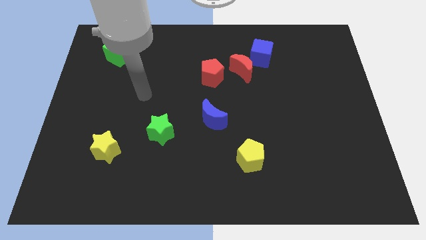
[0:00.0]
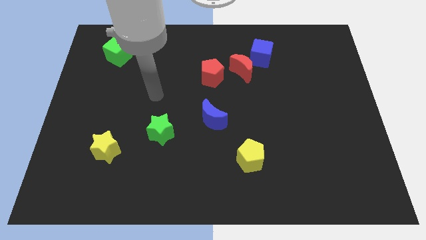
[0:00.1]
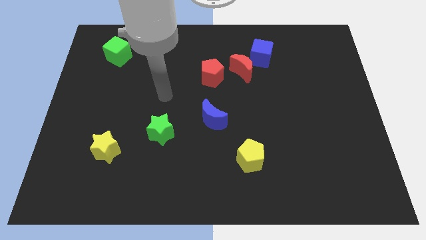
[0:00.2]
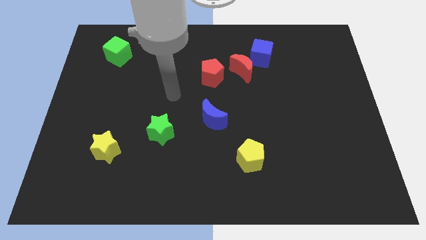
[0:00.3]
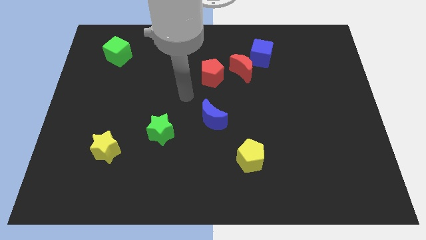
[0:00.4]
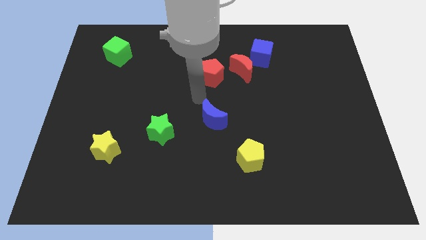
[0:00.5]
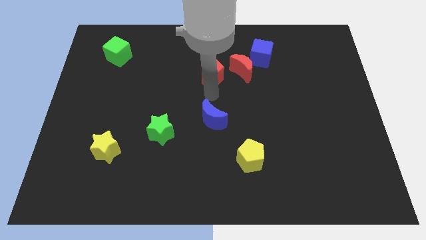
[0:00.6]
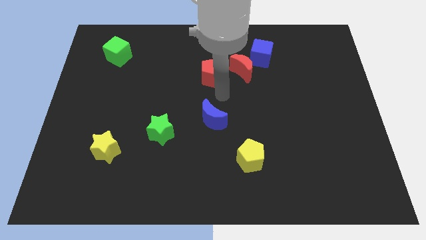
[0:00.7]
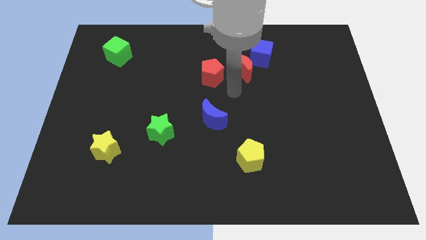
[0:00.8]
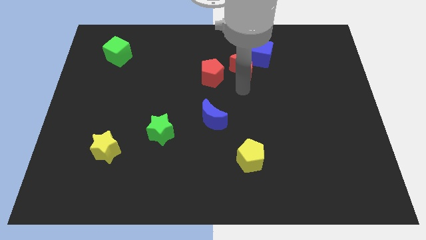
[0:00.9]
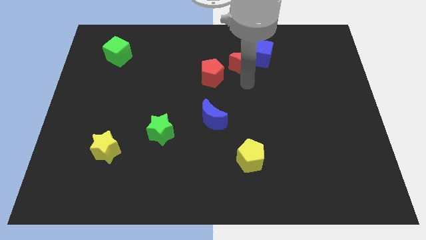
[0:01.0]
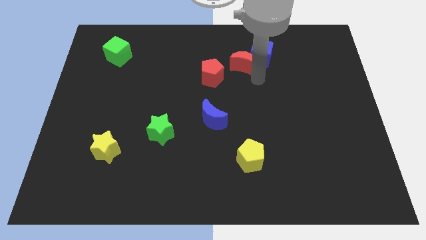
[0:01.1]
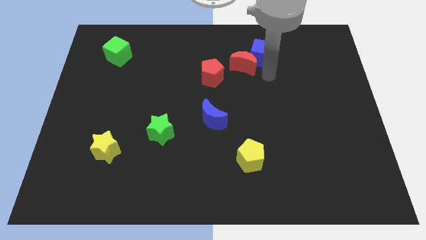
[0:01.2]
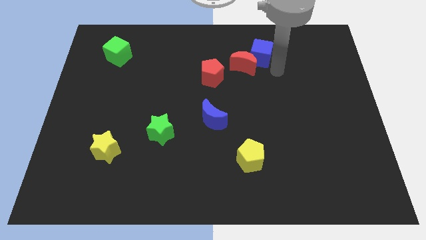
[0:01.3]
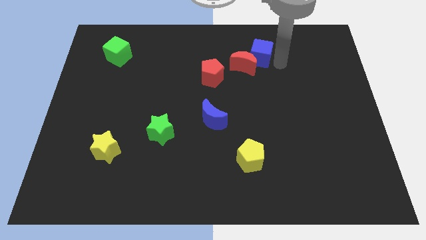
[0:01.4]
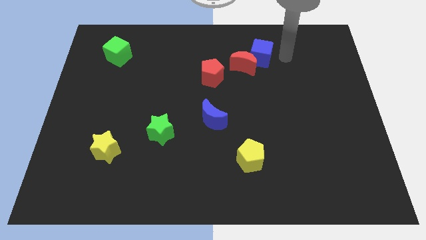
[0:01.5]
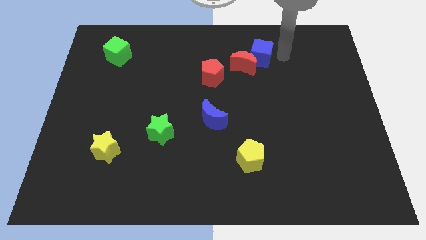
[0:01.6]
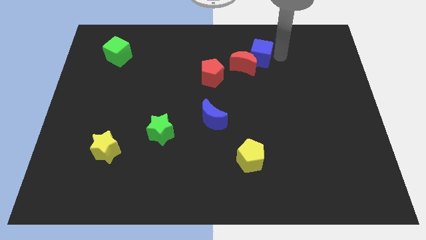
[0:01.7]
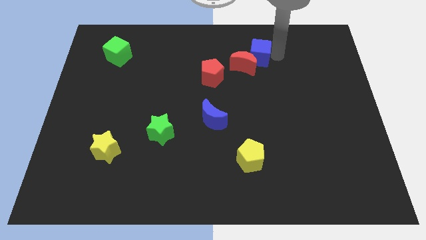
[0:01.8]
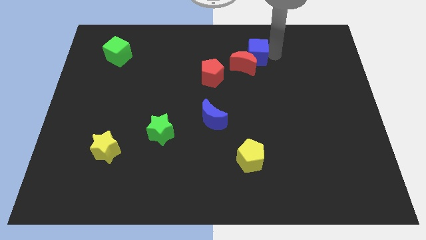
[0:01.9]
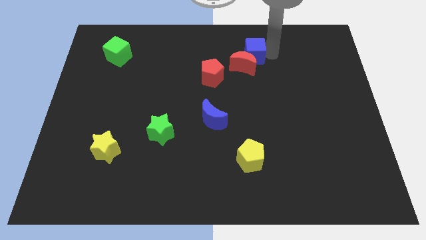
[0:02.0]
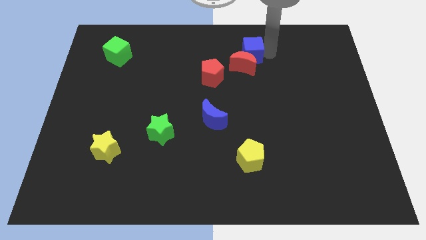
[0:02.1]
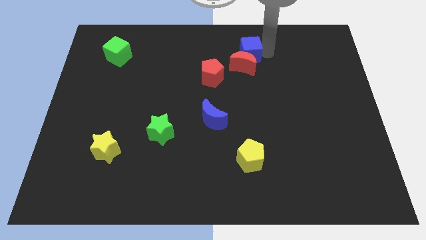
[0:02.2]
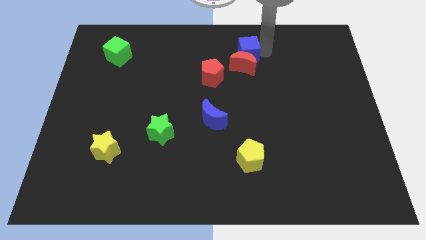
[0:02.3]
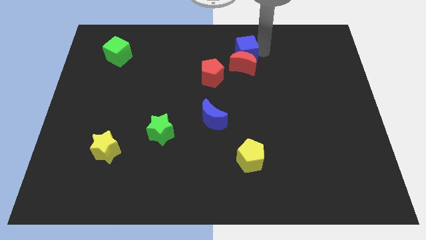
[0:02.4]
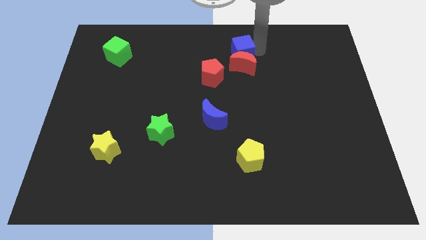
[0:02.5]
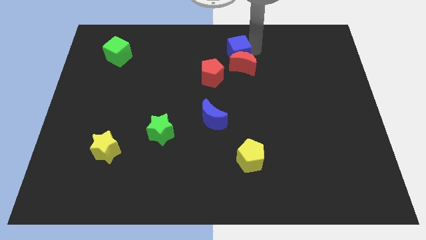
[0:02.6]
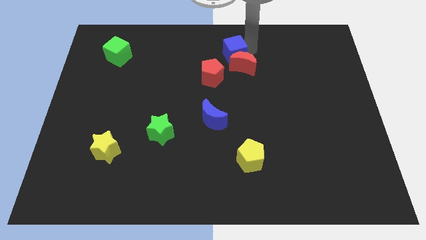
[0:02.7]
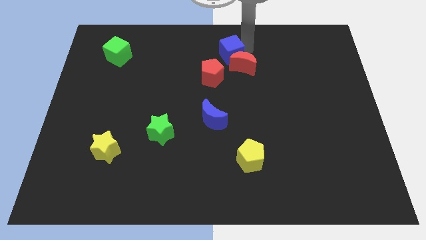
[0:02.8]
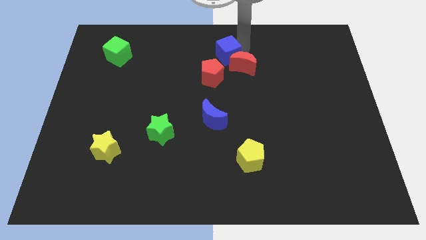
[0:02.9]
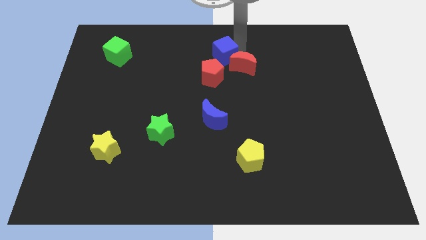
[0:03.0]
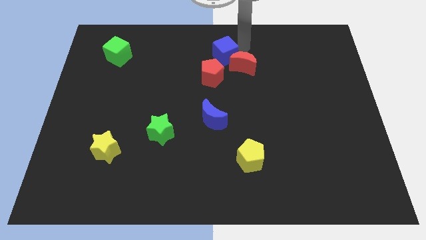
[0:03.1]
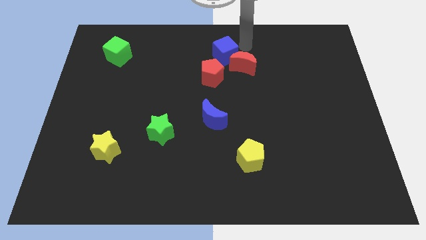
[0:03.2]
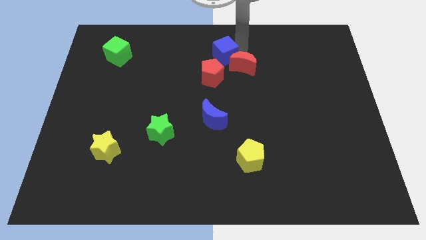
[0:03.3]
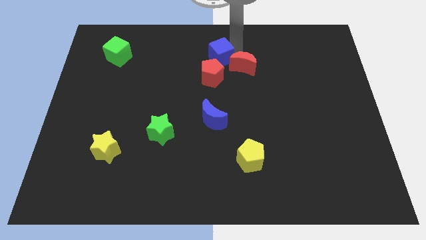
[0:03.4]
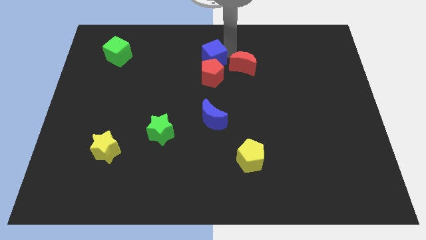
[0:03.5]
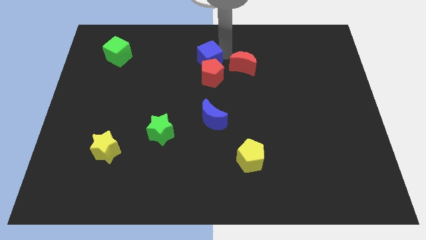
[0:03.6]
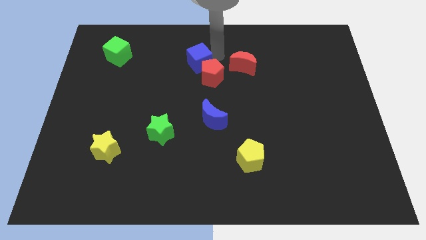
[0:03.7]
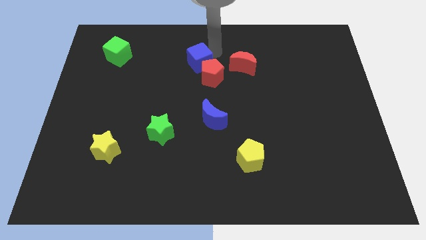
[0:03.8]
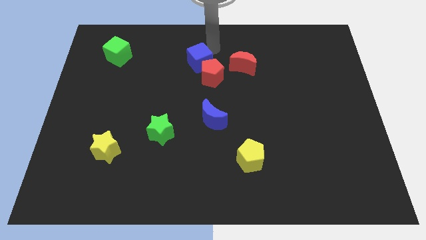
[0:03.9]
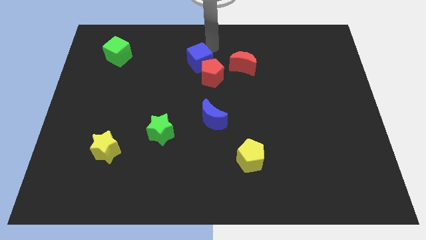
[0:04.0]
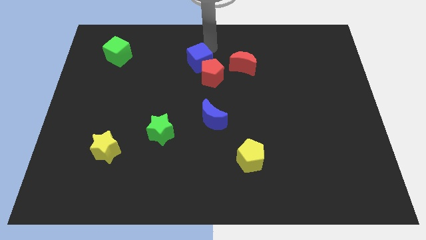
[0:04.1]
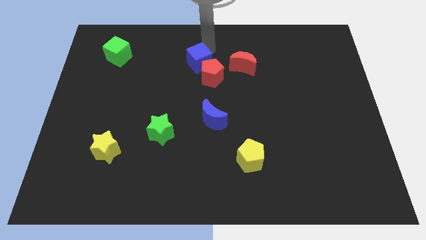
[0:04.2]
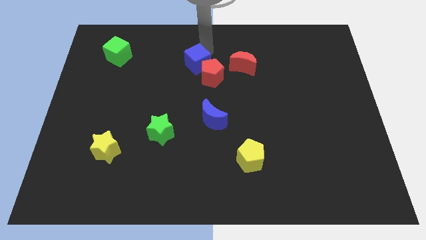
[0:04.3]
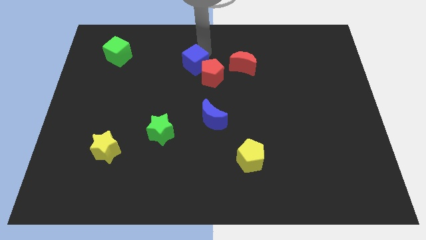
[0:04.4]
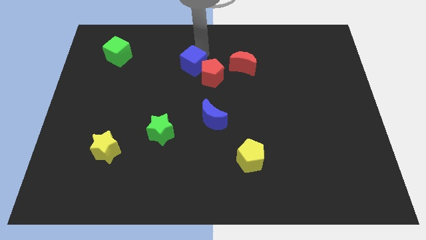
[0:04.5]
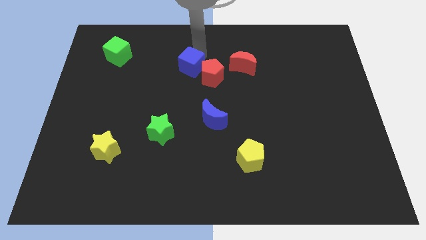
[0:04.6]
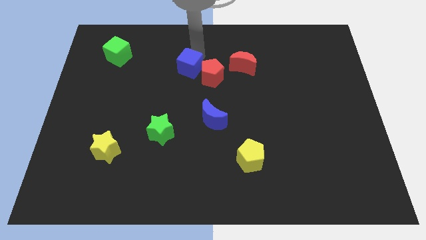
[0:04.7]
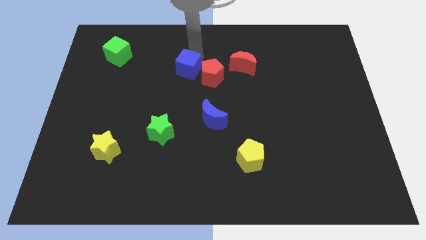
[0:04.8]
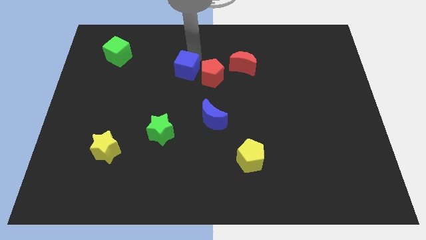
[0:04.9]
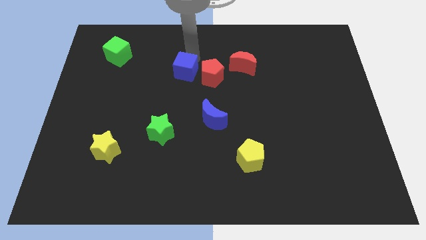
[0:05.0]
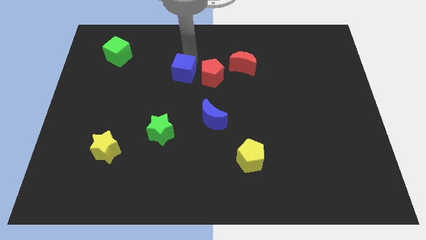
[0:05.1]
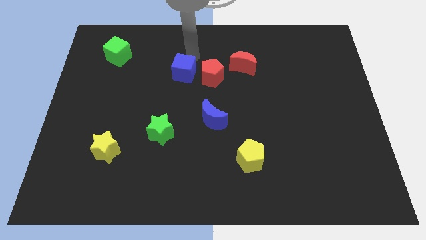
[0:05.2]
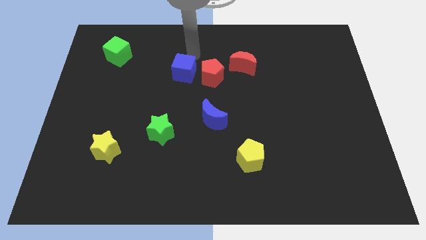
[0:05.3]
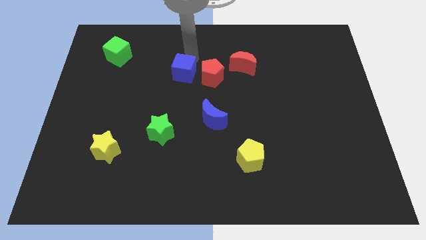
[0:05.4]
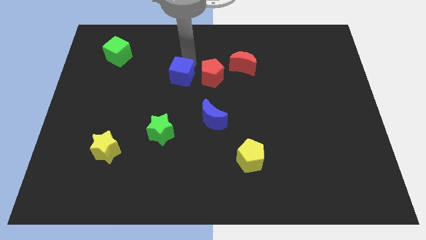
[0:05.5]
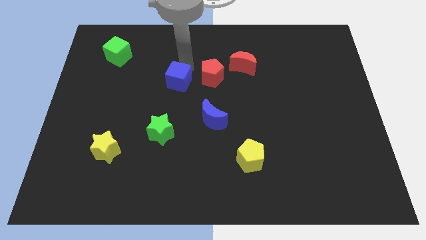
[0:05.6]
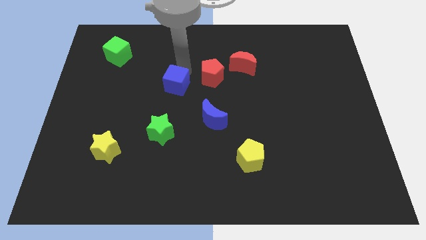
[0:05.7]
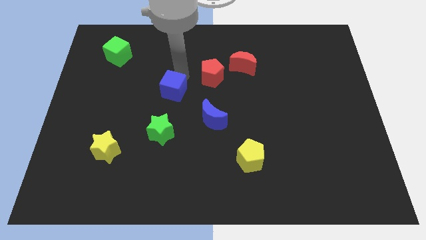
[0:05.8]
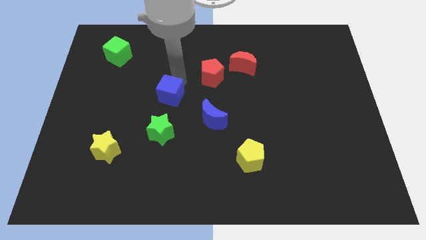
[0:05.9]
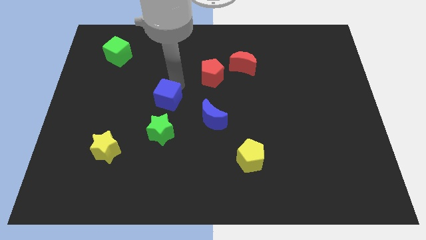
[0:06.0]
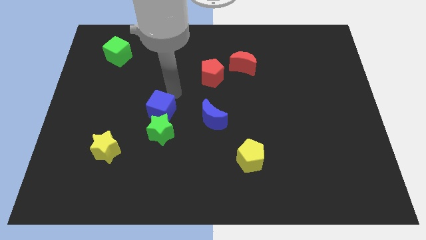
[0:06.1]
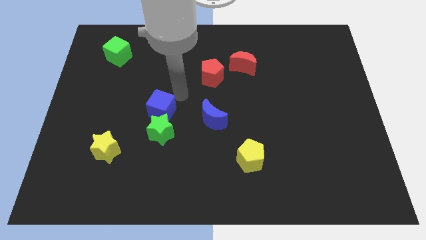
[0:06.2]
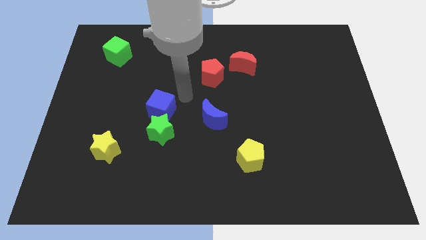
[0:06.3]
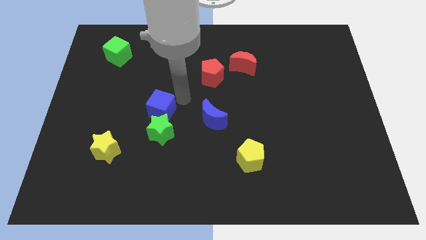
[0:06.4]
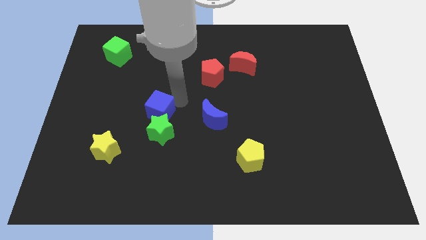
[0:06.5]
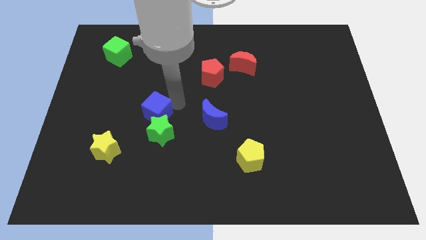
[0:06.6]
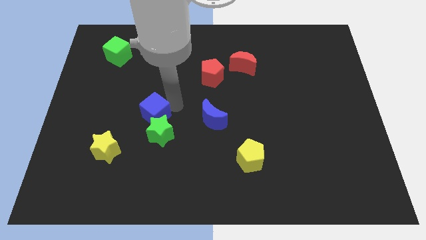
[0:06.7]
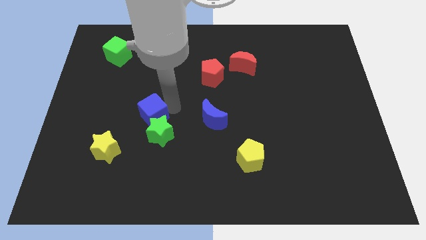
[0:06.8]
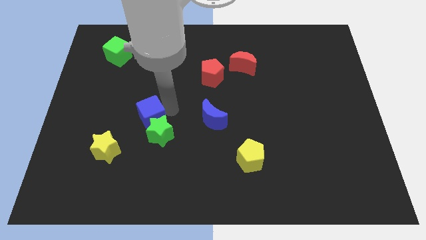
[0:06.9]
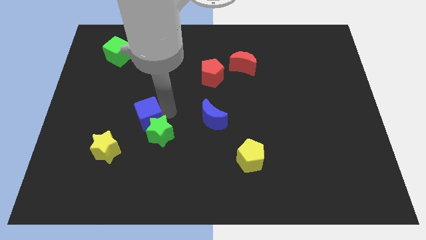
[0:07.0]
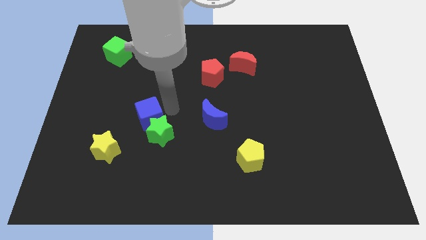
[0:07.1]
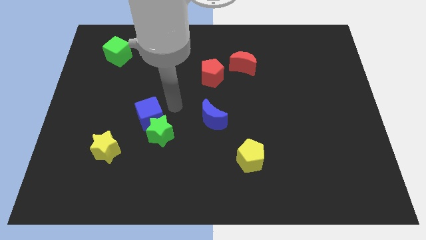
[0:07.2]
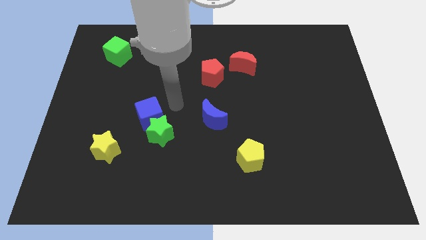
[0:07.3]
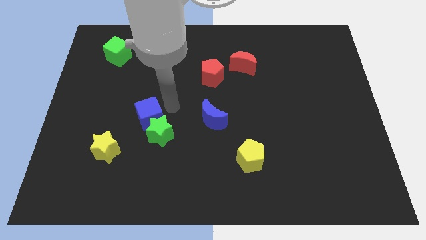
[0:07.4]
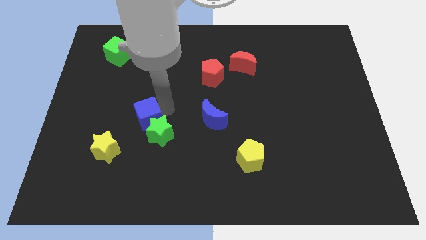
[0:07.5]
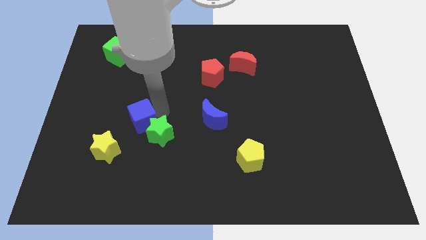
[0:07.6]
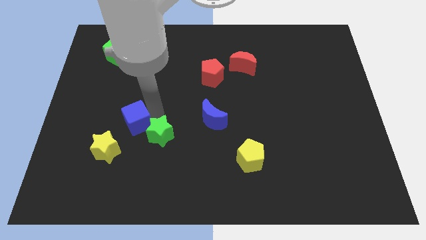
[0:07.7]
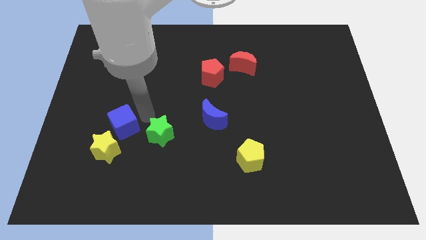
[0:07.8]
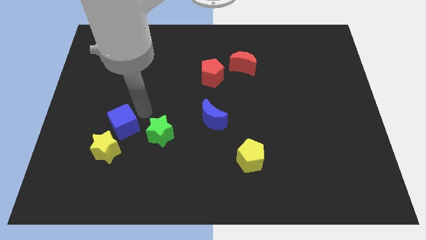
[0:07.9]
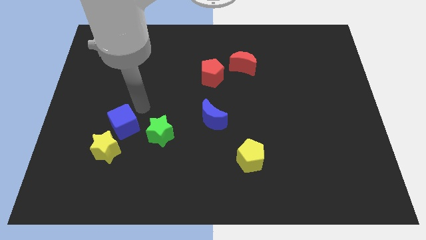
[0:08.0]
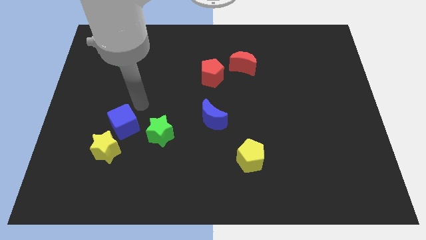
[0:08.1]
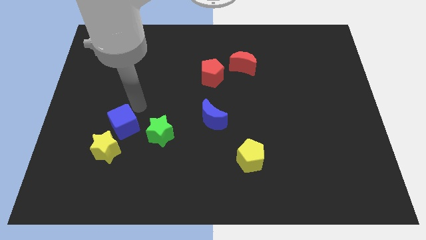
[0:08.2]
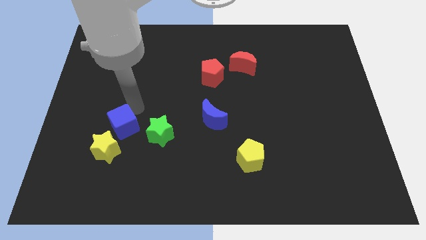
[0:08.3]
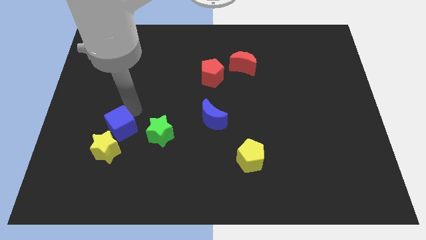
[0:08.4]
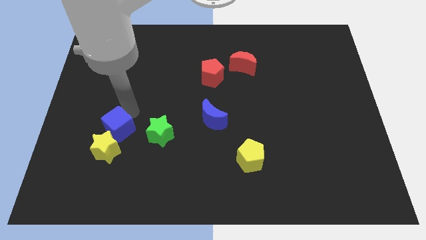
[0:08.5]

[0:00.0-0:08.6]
push the blue cube next to the yellow star
